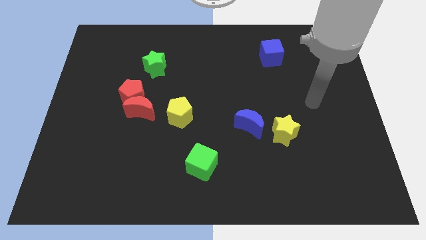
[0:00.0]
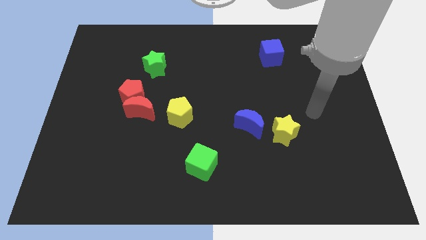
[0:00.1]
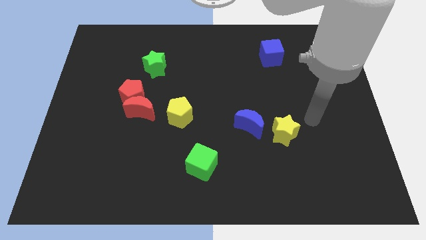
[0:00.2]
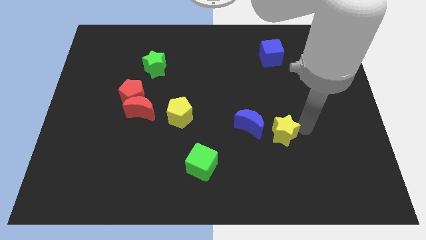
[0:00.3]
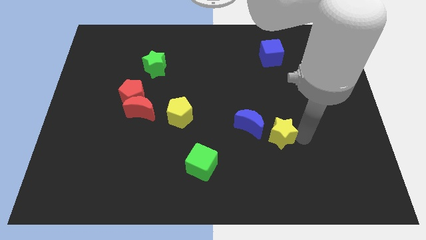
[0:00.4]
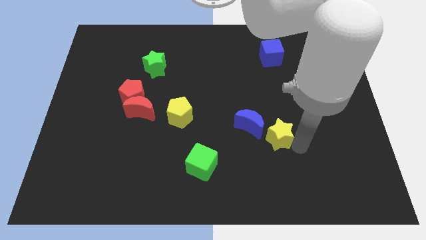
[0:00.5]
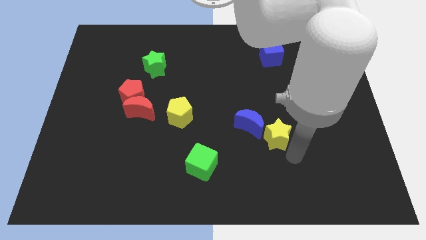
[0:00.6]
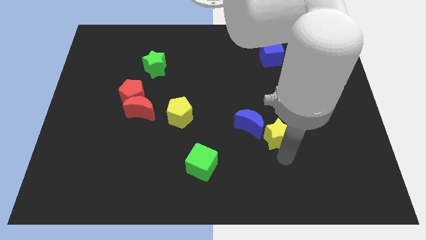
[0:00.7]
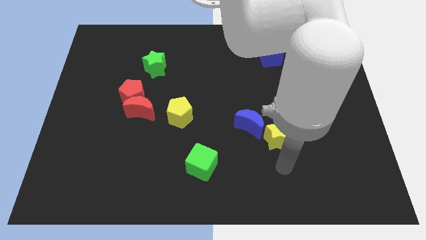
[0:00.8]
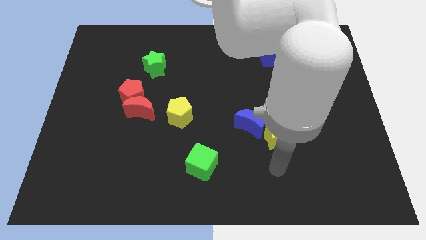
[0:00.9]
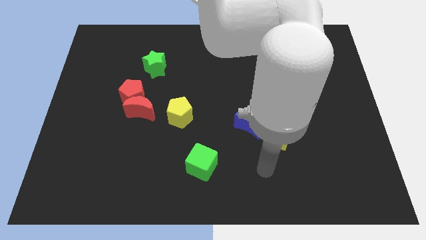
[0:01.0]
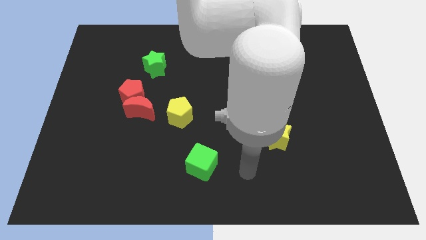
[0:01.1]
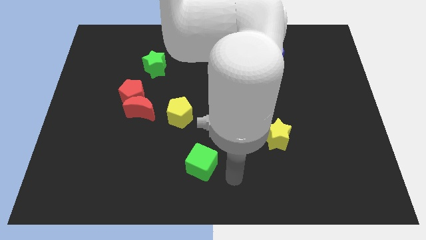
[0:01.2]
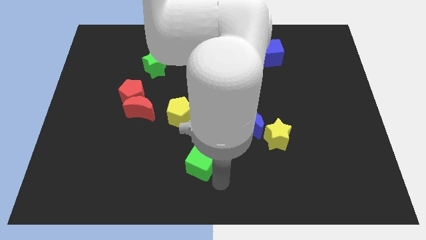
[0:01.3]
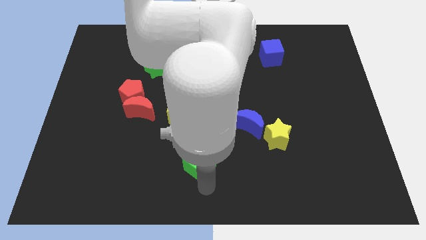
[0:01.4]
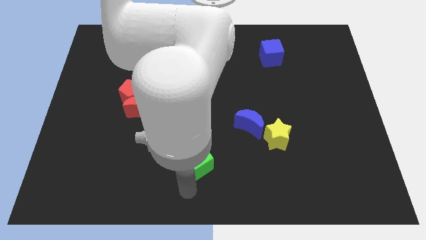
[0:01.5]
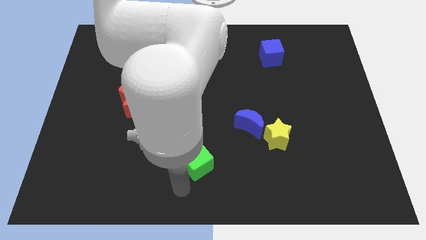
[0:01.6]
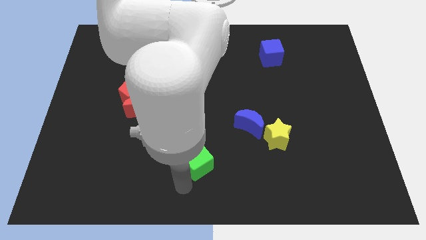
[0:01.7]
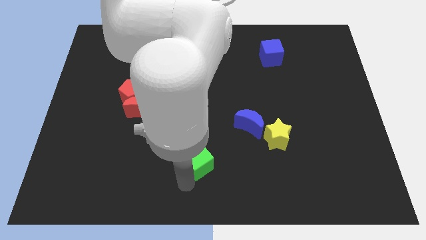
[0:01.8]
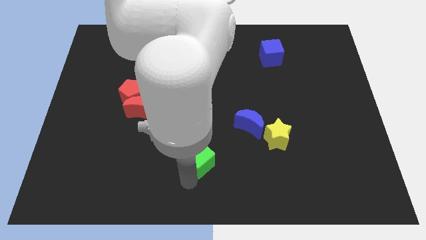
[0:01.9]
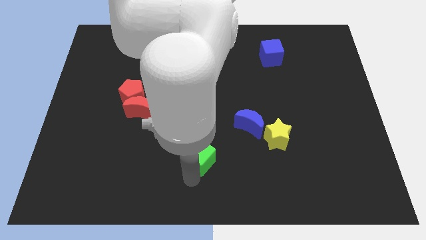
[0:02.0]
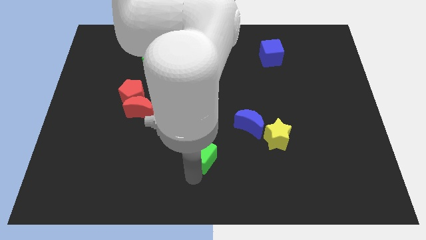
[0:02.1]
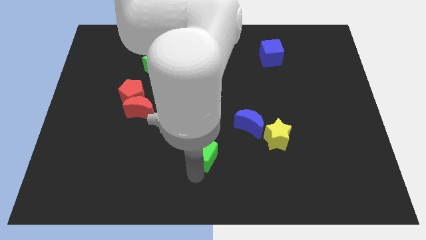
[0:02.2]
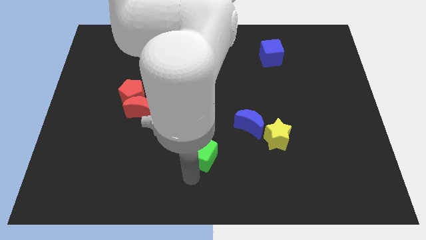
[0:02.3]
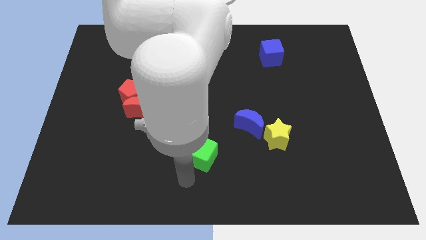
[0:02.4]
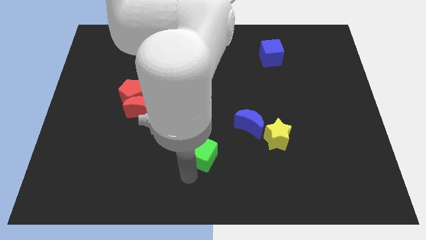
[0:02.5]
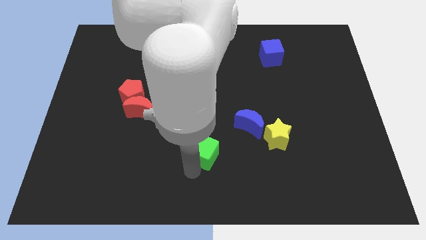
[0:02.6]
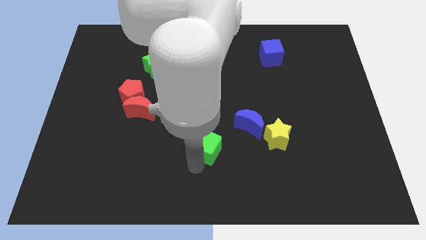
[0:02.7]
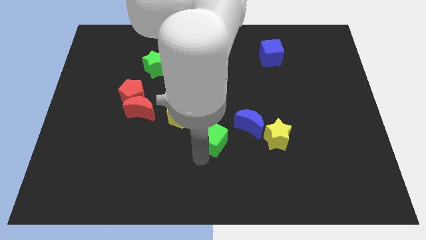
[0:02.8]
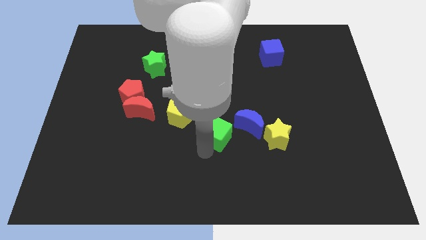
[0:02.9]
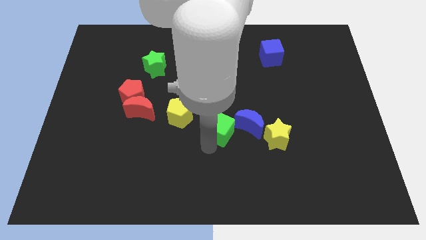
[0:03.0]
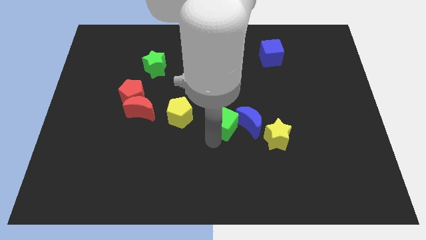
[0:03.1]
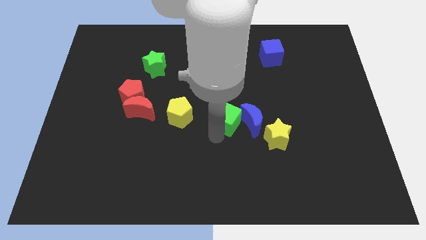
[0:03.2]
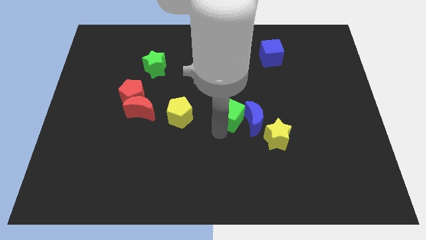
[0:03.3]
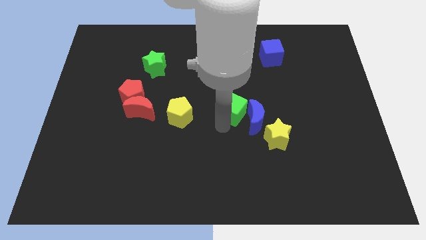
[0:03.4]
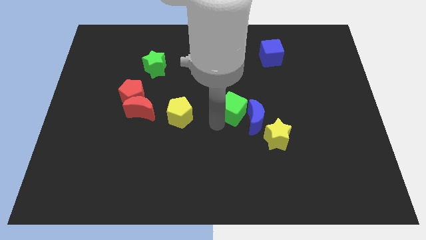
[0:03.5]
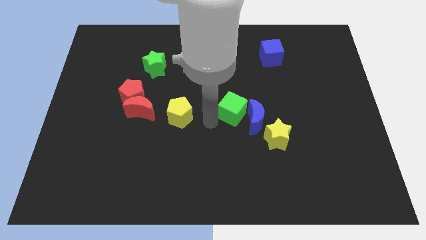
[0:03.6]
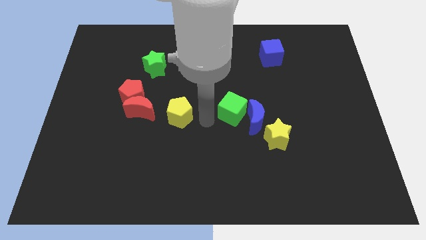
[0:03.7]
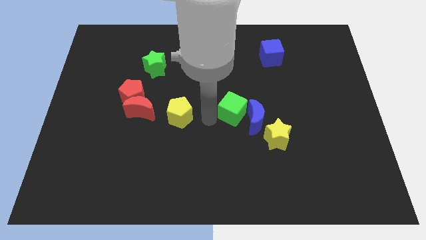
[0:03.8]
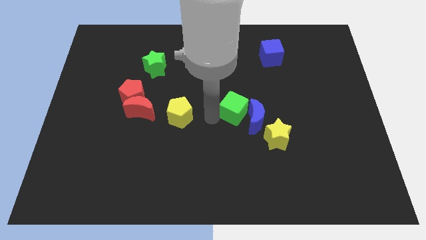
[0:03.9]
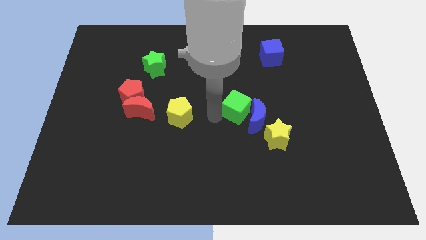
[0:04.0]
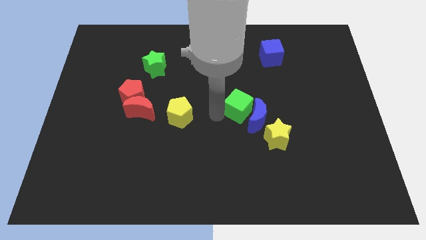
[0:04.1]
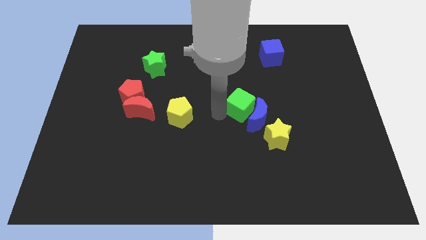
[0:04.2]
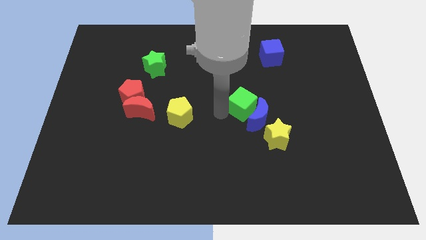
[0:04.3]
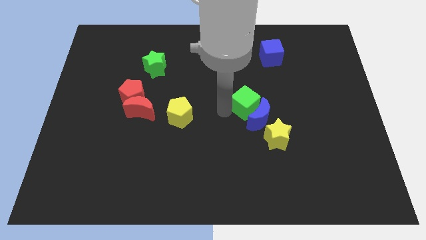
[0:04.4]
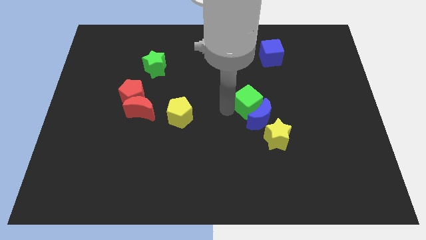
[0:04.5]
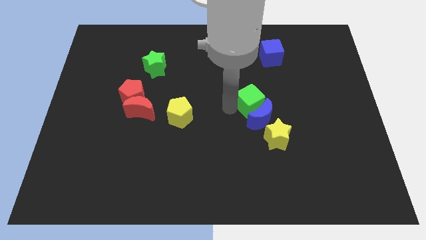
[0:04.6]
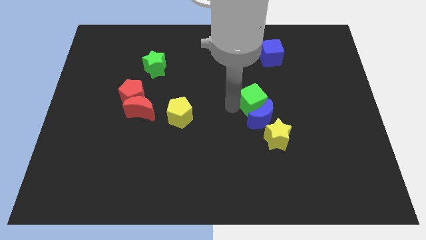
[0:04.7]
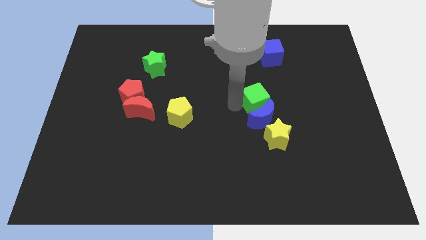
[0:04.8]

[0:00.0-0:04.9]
push the green cube up and right diagonally

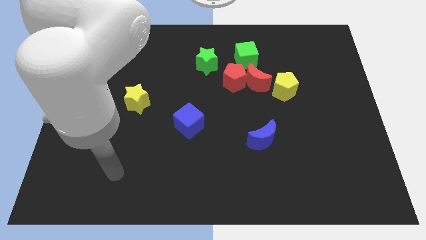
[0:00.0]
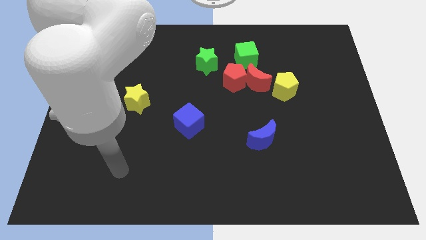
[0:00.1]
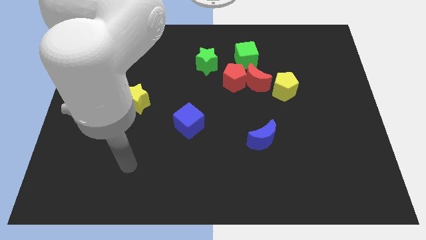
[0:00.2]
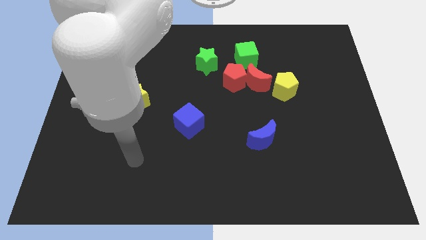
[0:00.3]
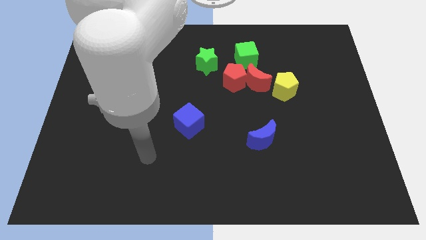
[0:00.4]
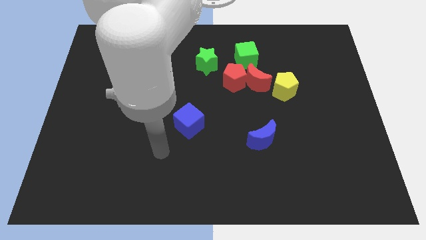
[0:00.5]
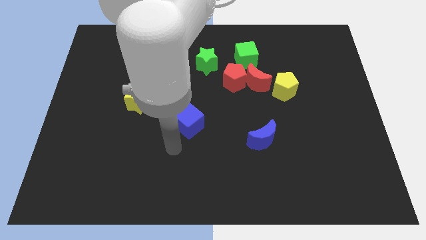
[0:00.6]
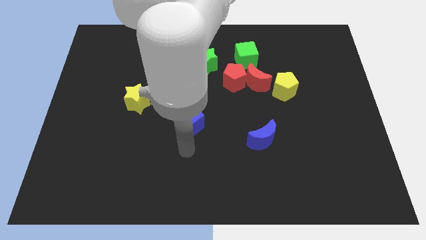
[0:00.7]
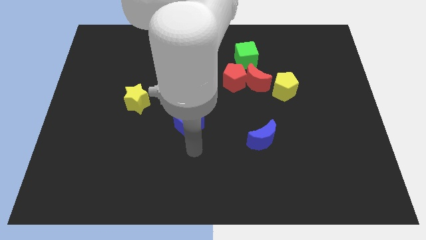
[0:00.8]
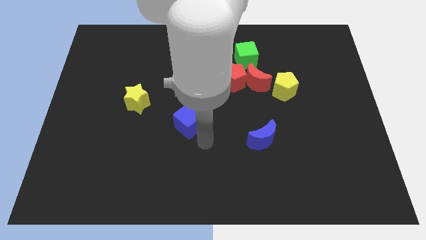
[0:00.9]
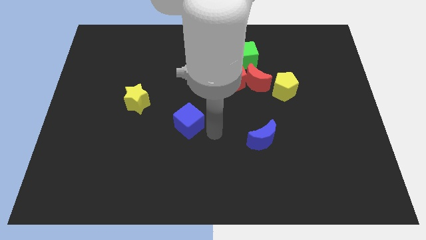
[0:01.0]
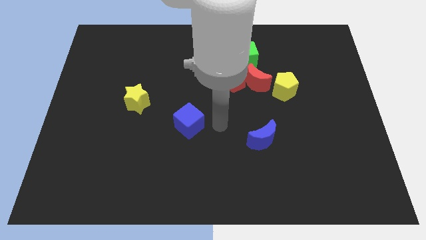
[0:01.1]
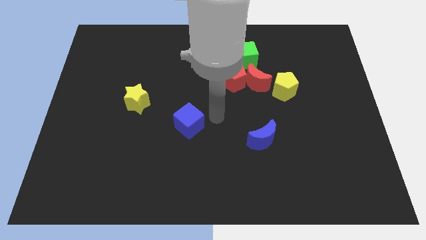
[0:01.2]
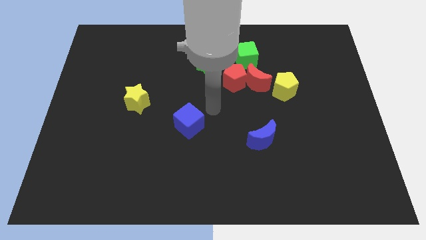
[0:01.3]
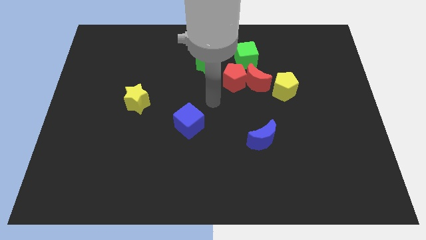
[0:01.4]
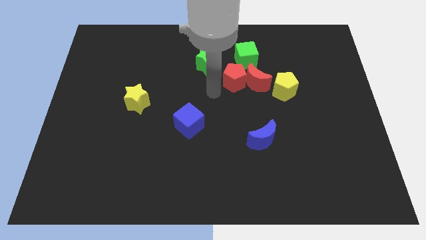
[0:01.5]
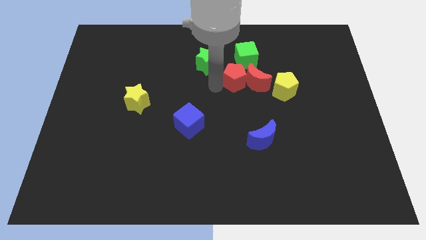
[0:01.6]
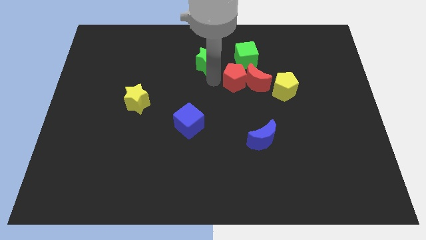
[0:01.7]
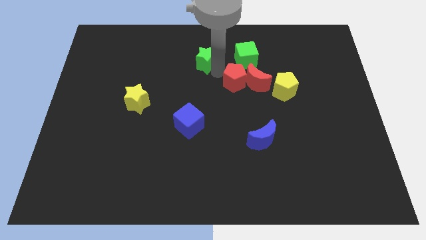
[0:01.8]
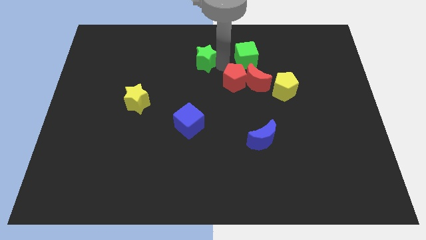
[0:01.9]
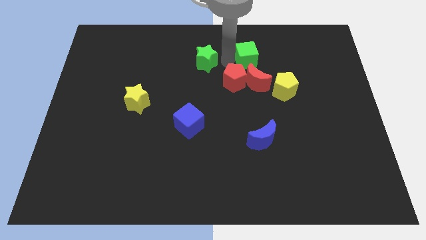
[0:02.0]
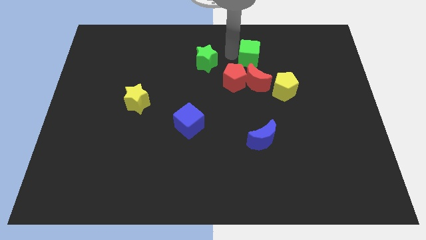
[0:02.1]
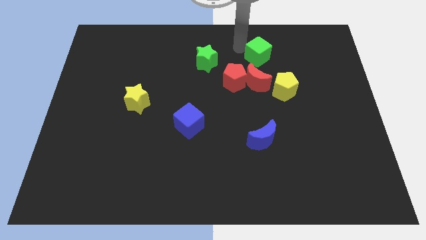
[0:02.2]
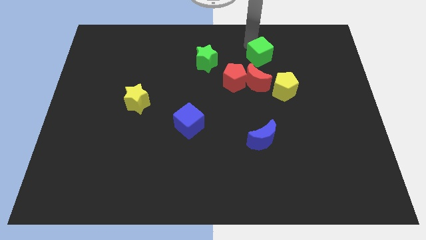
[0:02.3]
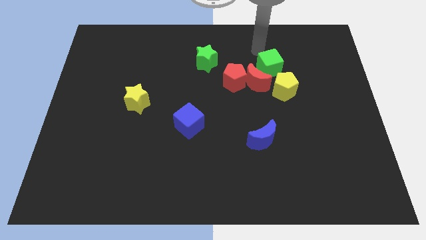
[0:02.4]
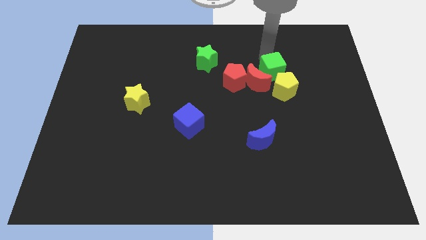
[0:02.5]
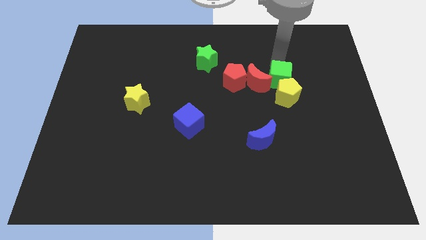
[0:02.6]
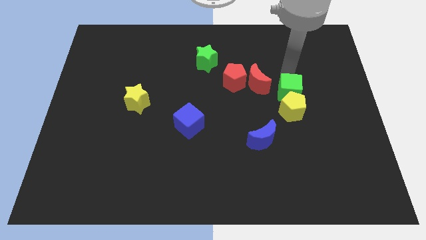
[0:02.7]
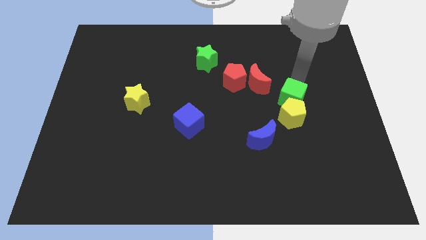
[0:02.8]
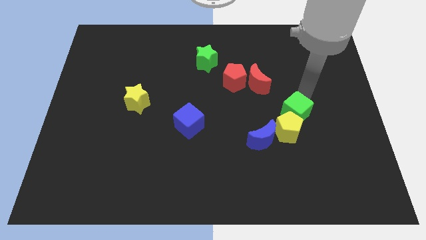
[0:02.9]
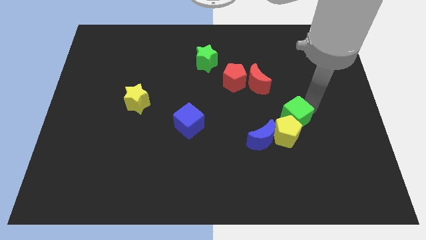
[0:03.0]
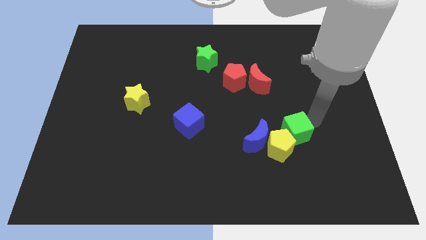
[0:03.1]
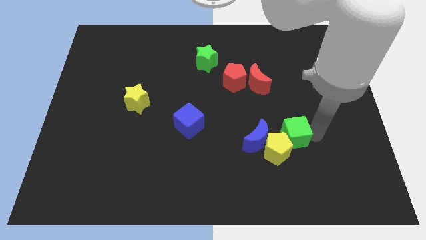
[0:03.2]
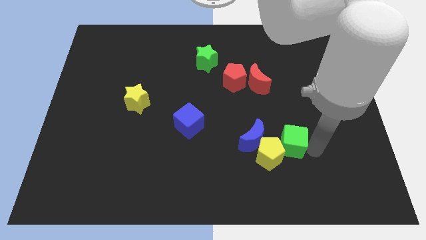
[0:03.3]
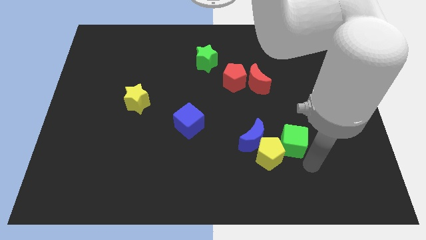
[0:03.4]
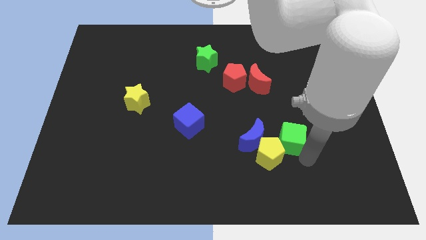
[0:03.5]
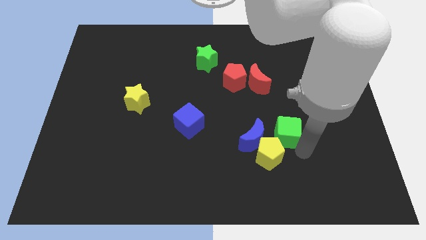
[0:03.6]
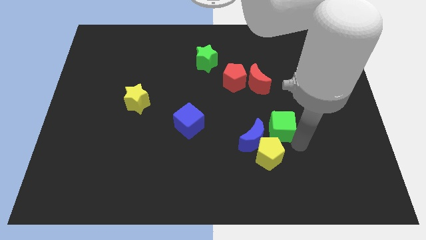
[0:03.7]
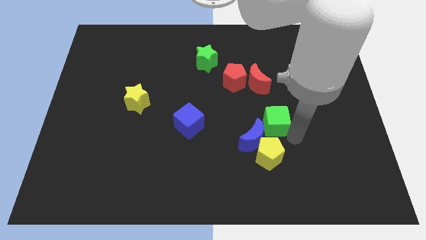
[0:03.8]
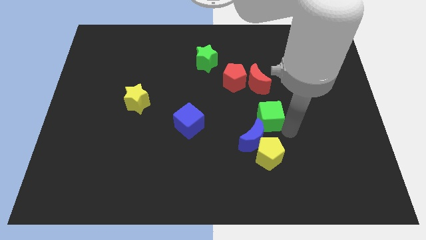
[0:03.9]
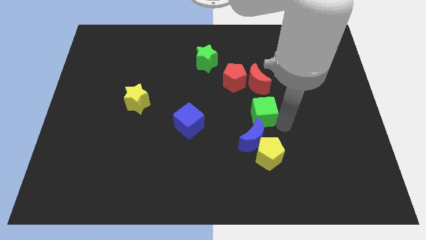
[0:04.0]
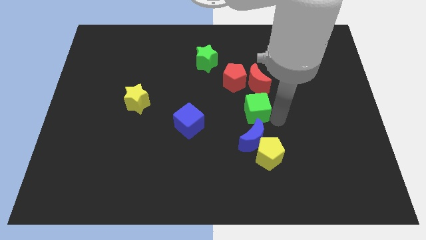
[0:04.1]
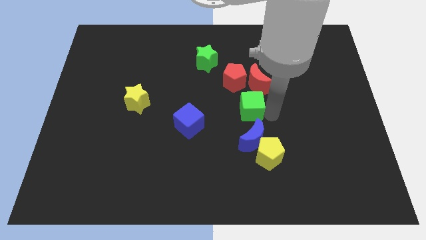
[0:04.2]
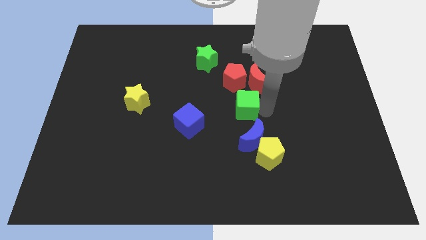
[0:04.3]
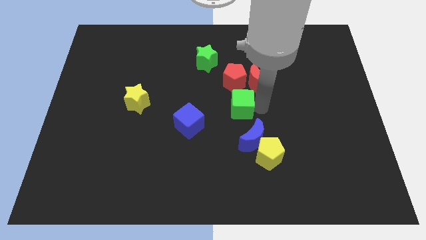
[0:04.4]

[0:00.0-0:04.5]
move the green cube downwards and to the left diagonally a little bit
